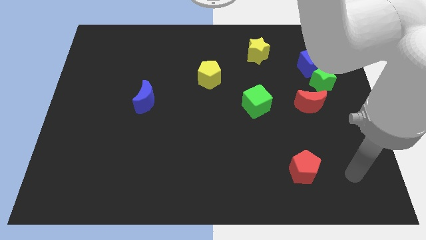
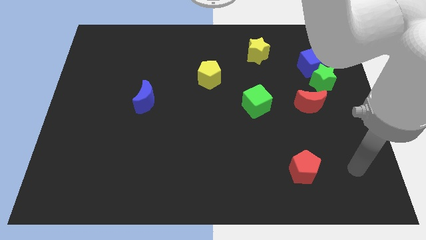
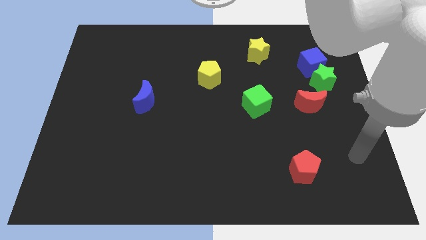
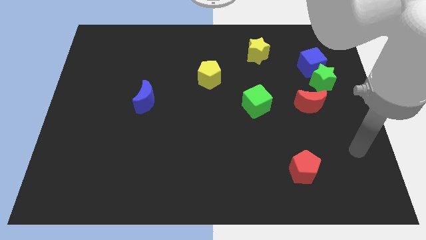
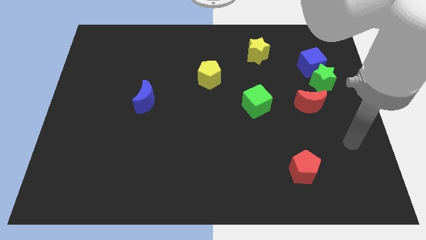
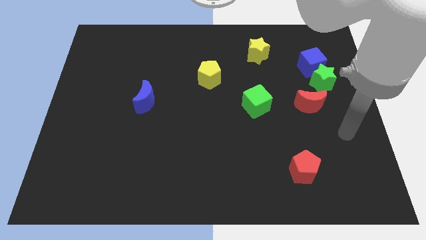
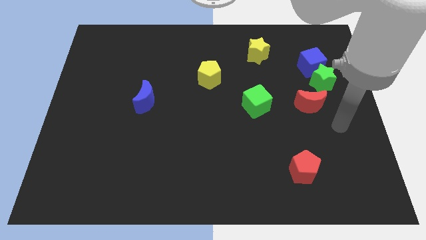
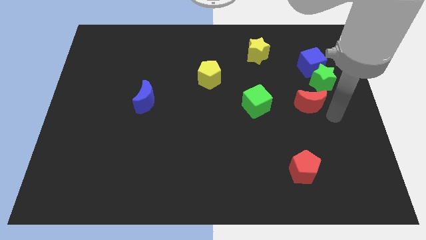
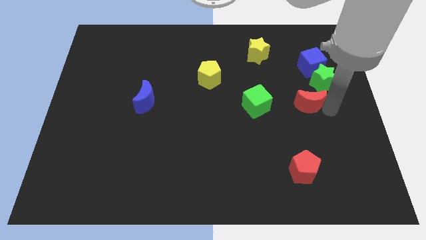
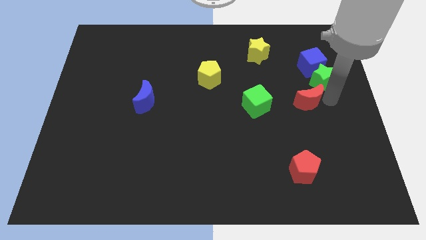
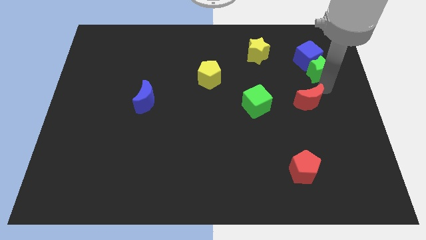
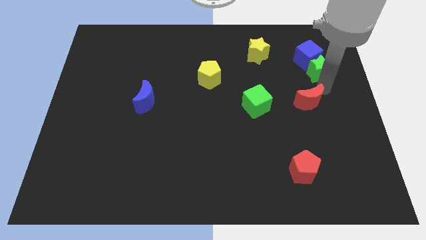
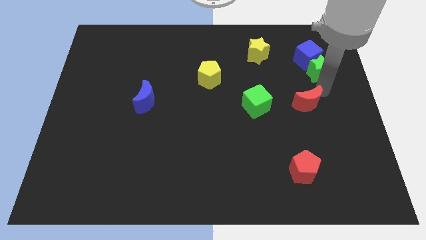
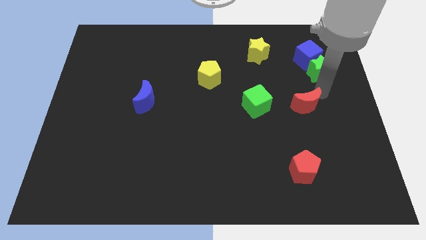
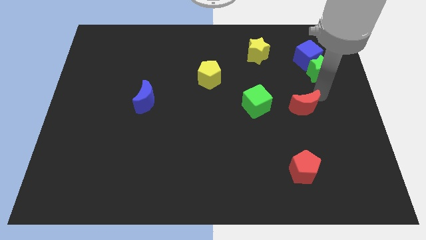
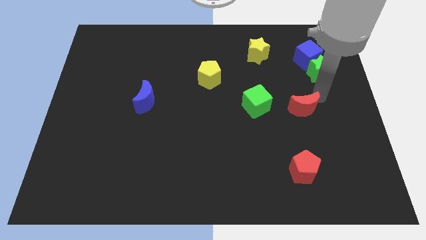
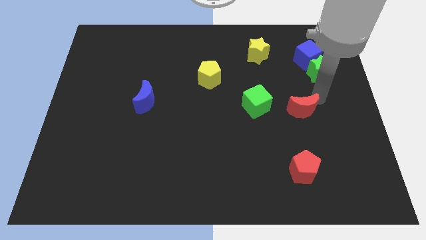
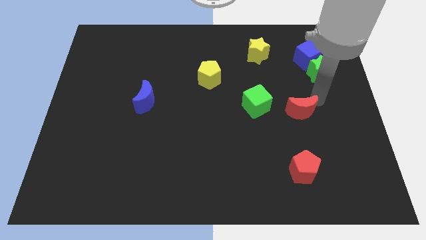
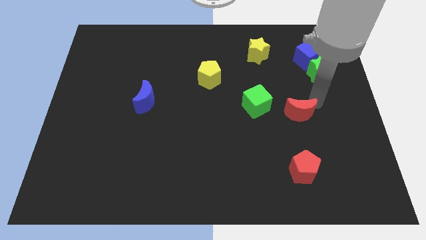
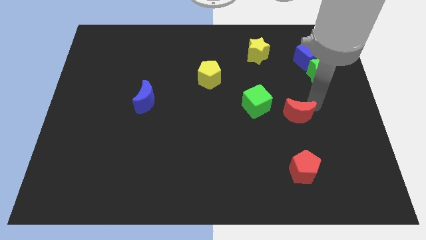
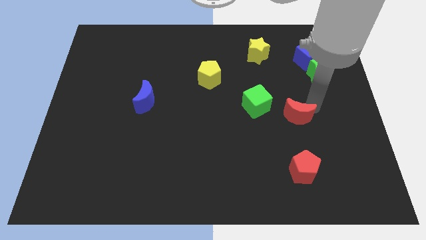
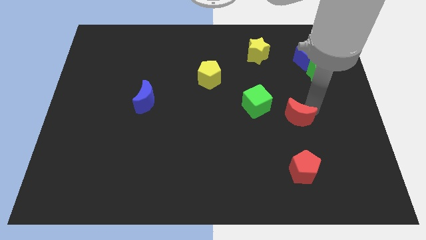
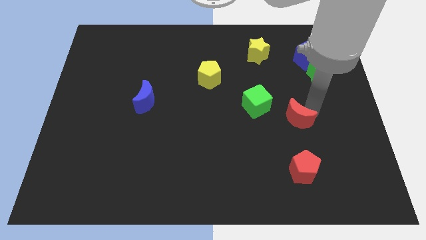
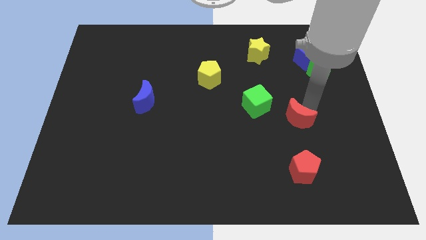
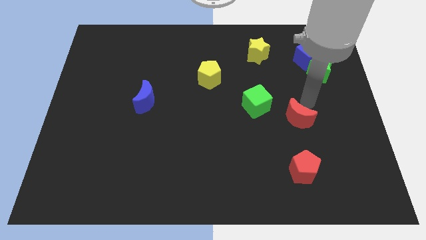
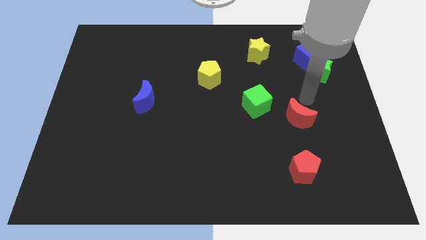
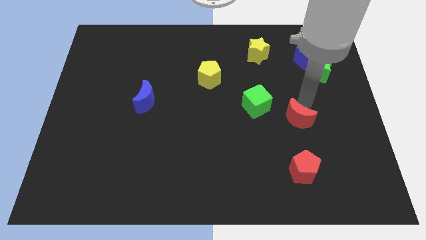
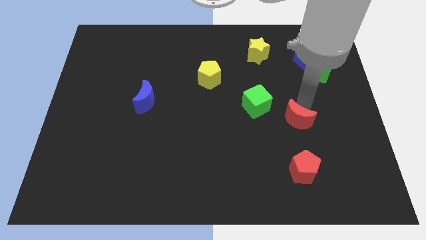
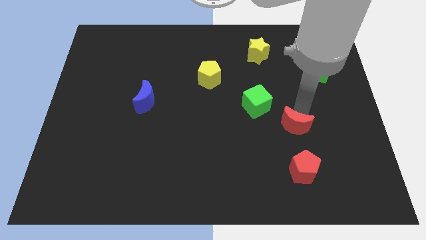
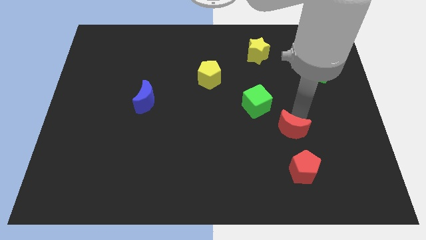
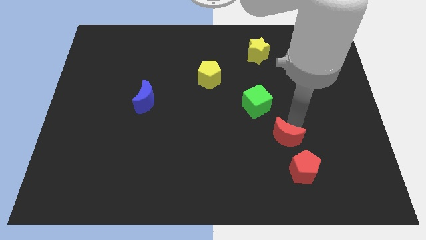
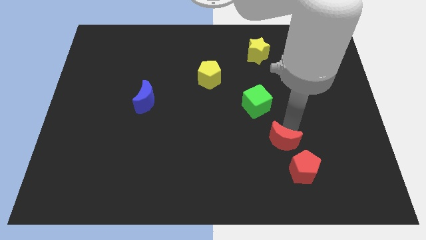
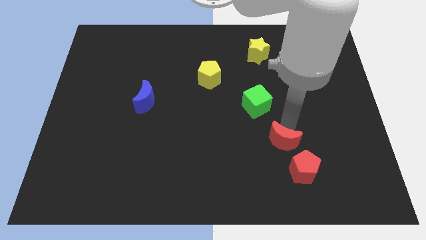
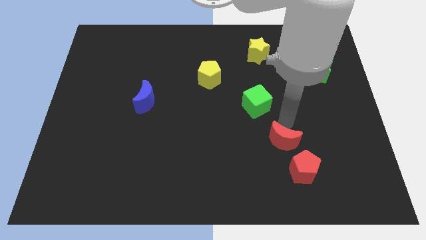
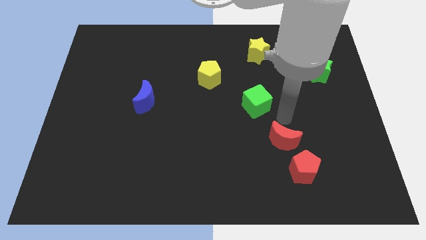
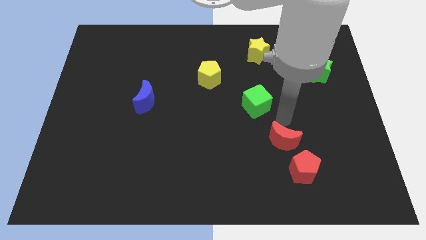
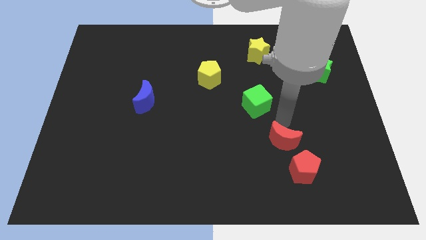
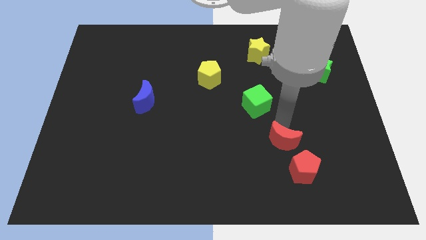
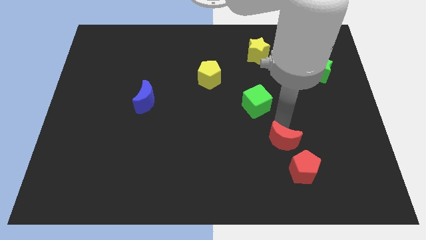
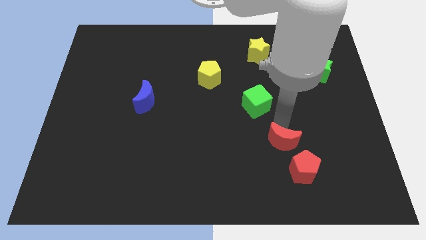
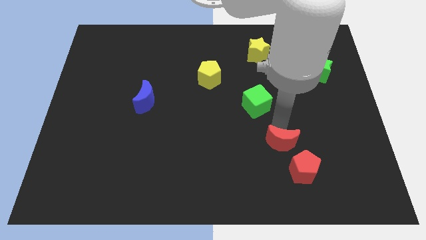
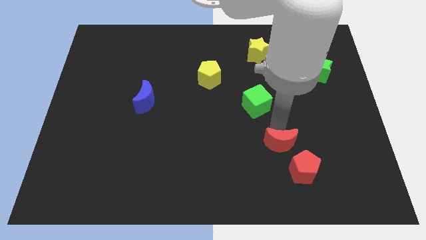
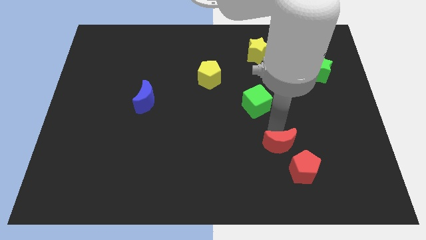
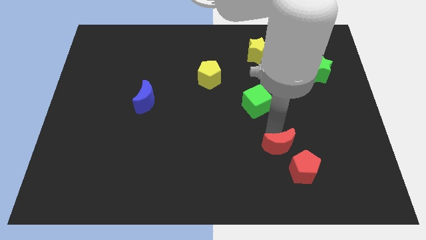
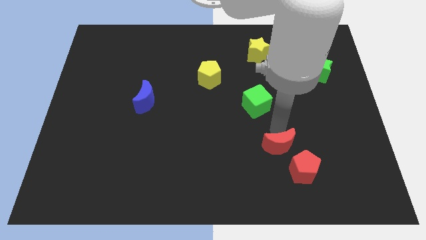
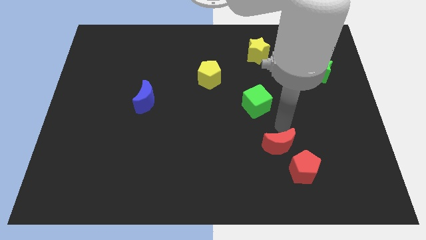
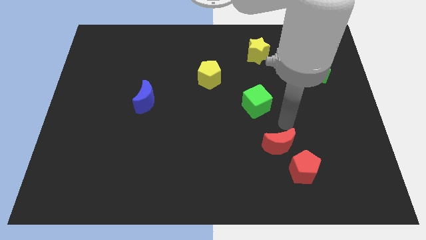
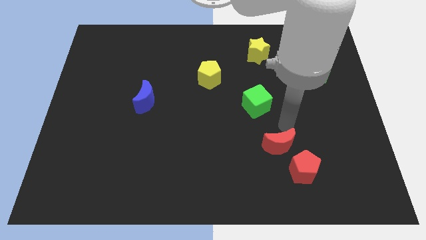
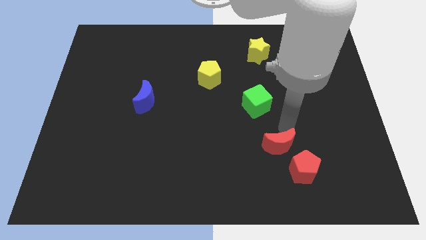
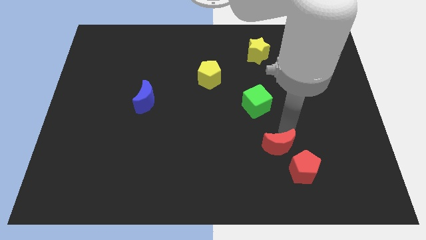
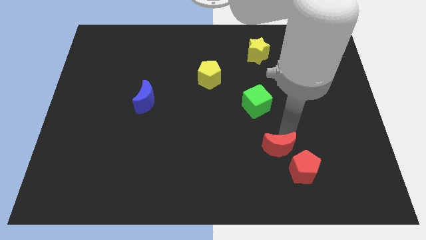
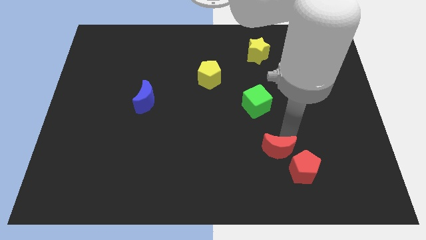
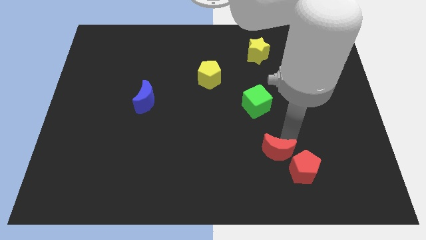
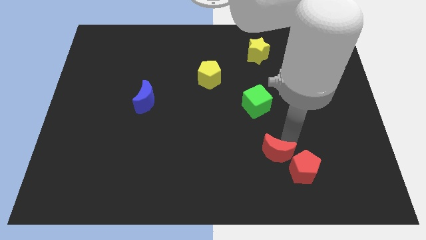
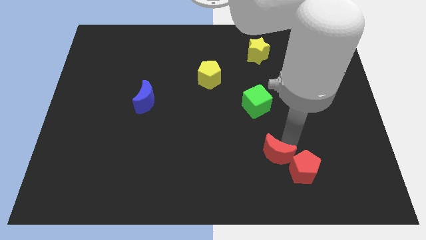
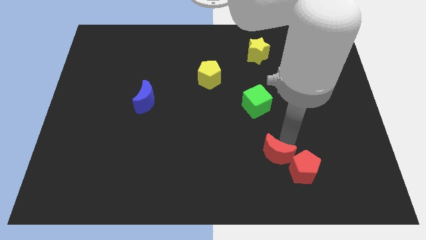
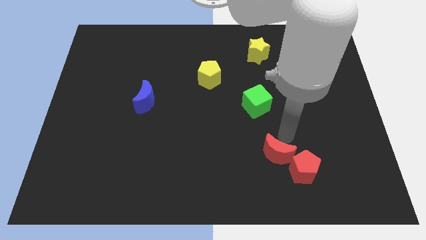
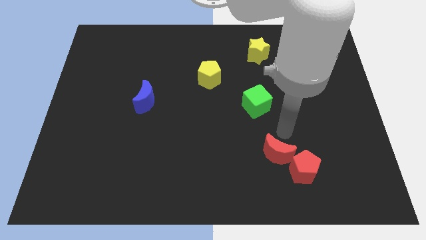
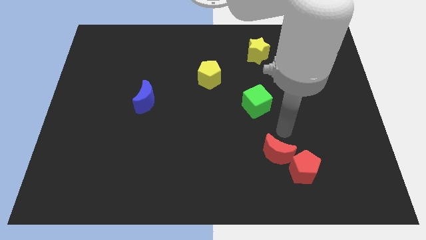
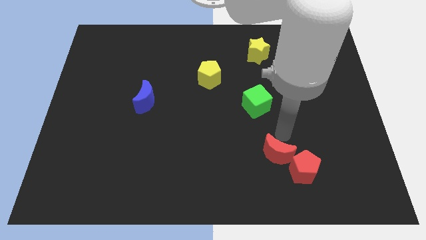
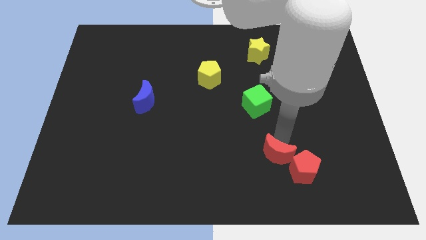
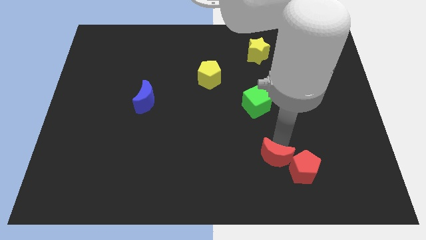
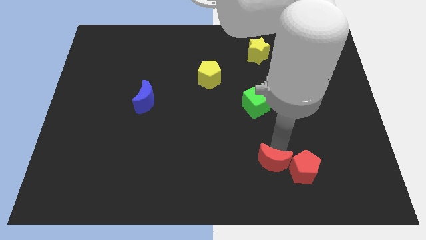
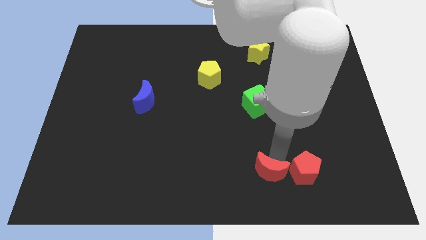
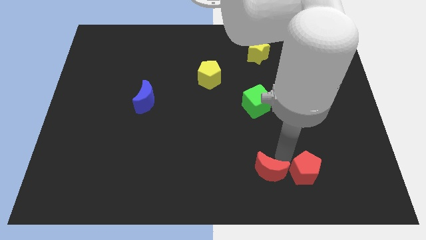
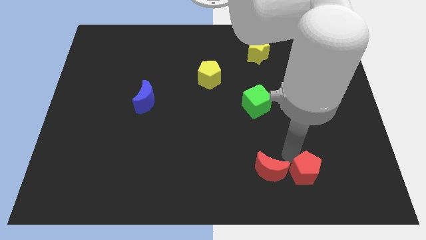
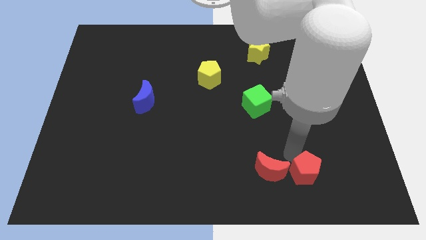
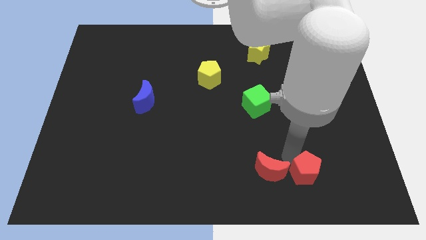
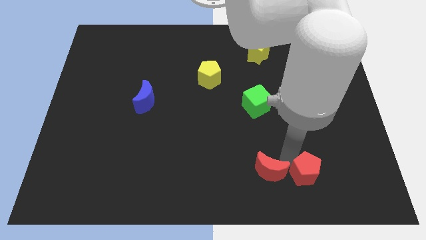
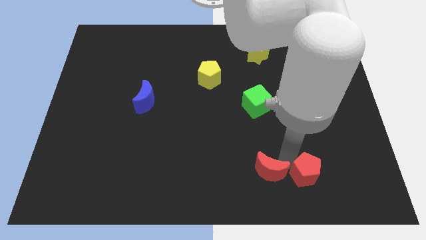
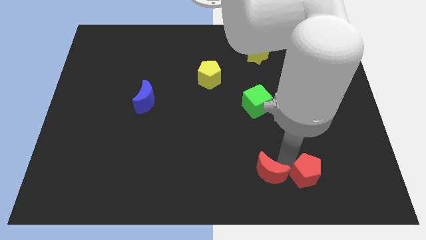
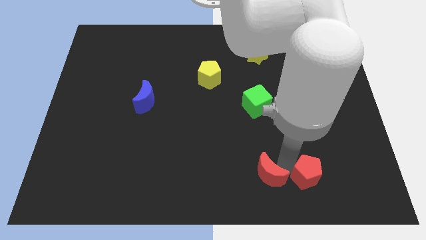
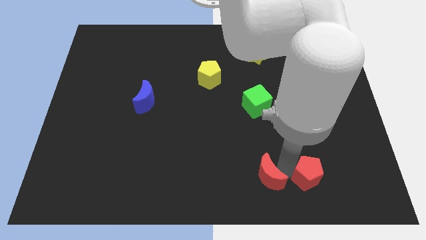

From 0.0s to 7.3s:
move the red moon to the bottom
